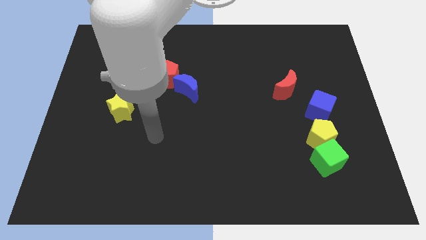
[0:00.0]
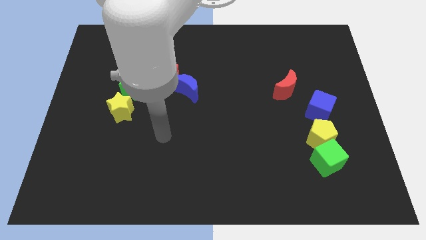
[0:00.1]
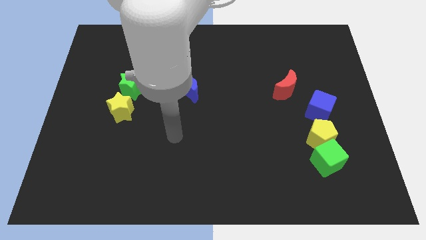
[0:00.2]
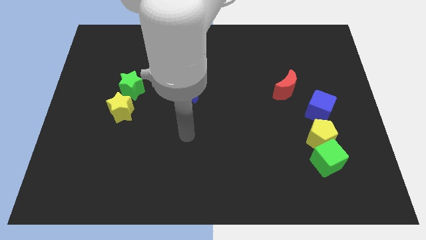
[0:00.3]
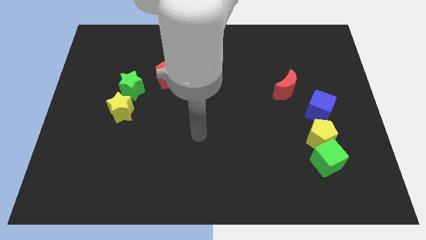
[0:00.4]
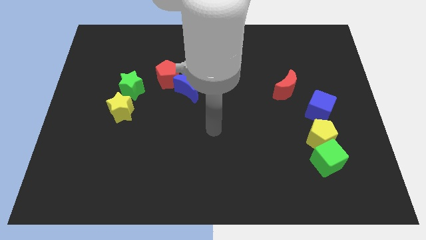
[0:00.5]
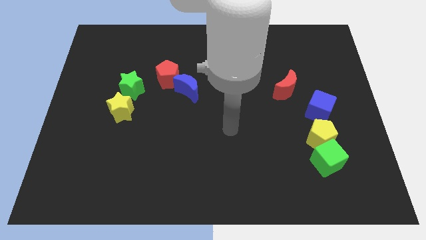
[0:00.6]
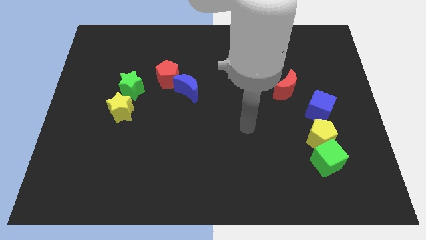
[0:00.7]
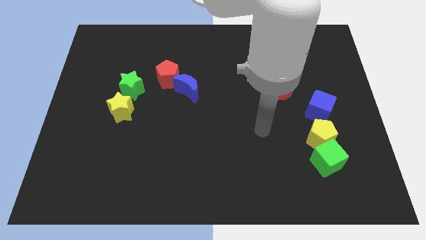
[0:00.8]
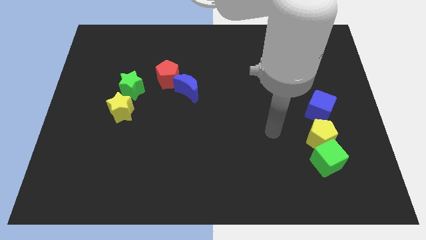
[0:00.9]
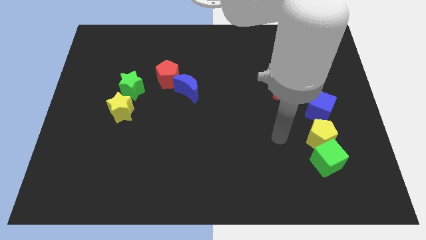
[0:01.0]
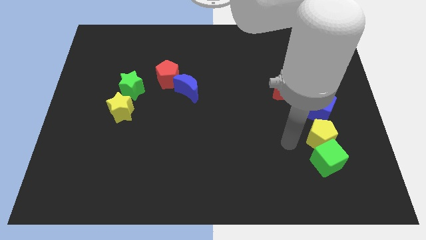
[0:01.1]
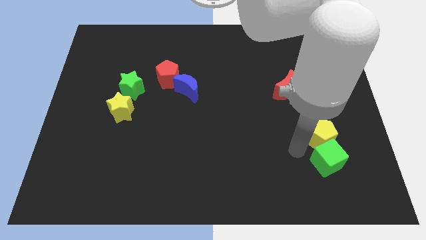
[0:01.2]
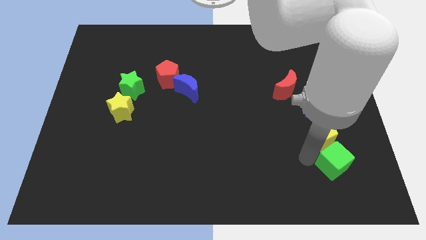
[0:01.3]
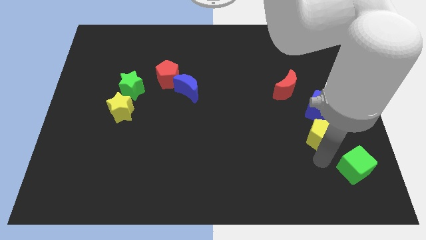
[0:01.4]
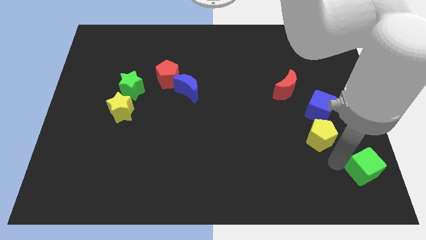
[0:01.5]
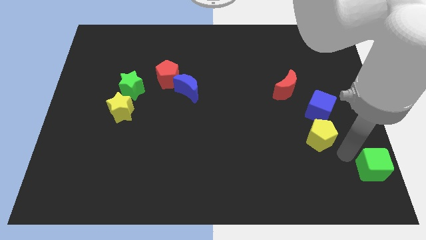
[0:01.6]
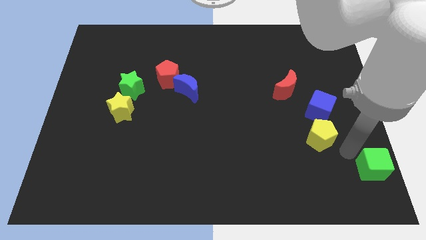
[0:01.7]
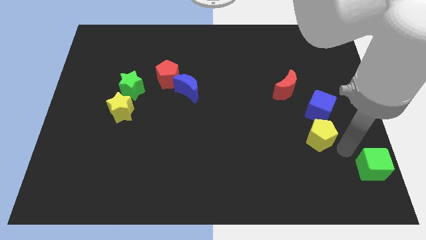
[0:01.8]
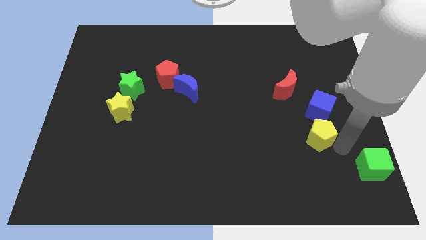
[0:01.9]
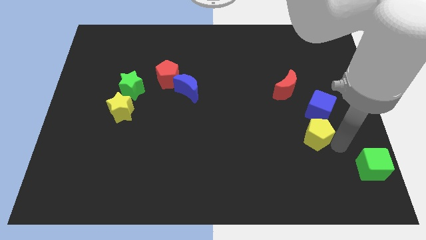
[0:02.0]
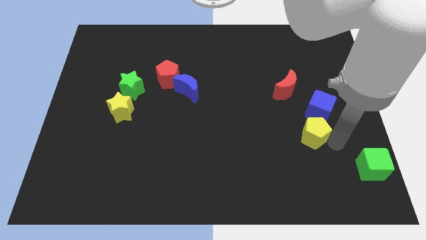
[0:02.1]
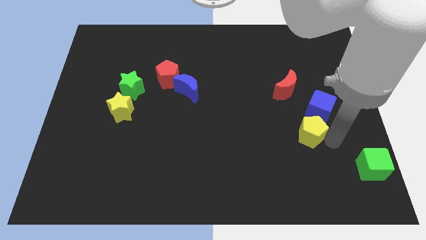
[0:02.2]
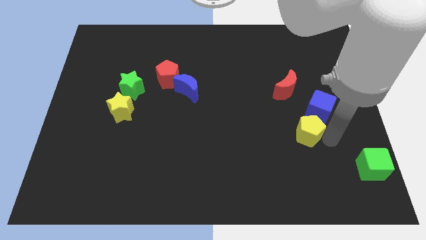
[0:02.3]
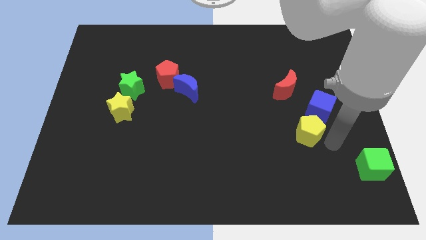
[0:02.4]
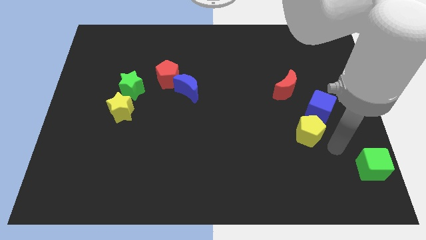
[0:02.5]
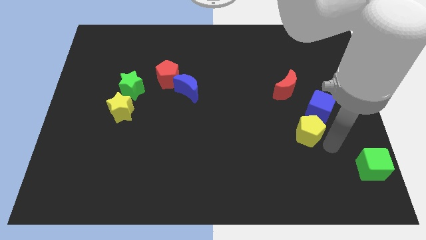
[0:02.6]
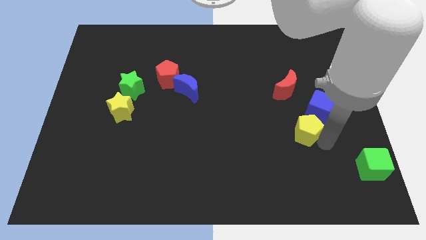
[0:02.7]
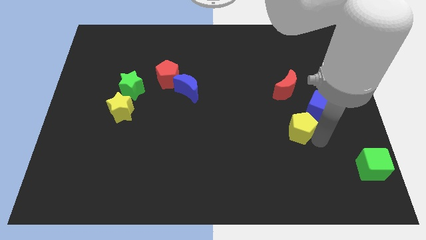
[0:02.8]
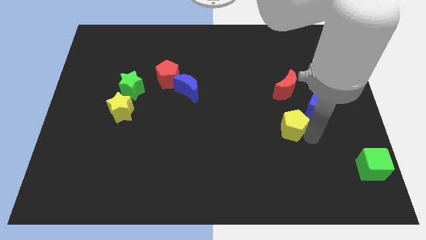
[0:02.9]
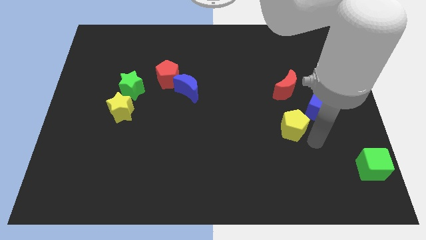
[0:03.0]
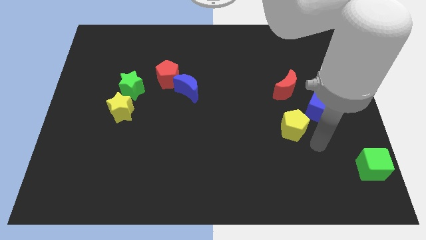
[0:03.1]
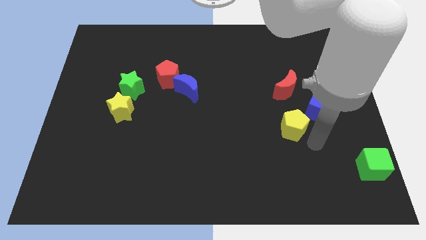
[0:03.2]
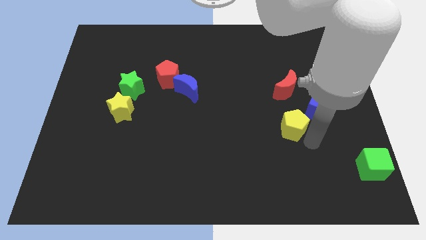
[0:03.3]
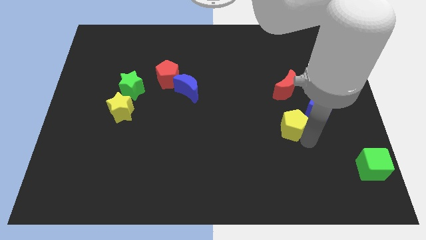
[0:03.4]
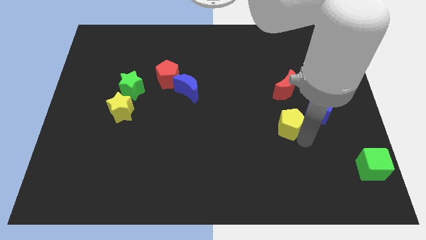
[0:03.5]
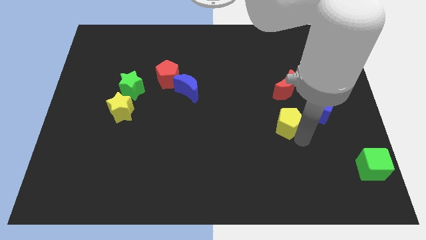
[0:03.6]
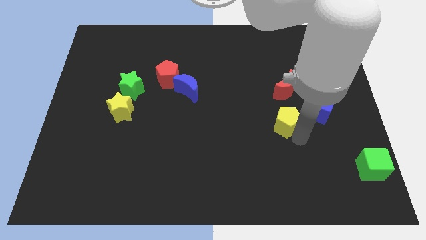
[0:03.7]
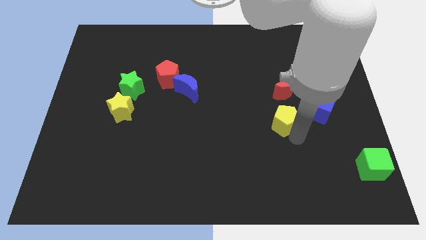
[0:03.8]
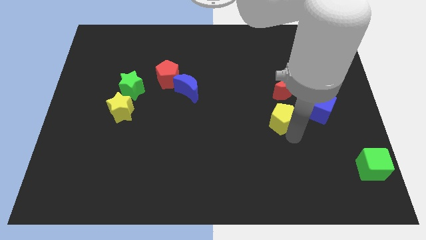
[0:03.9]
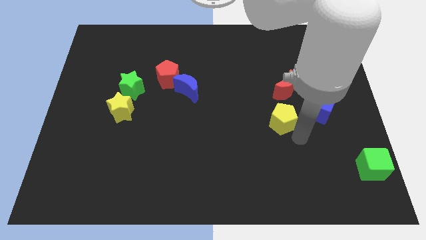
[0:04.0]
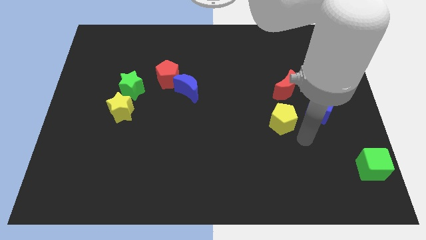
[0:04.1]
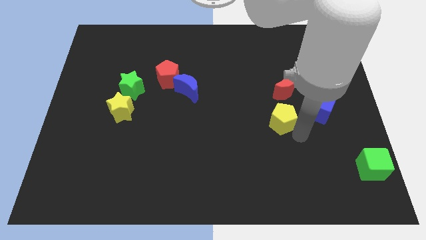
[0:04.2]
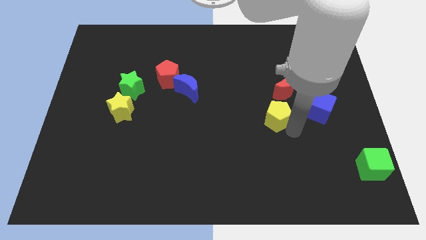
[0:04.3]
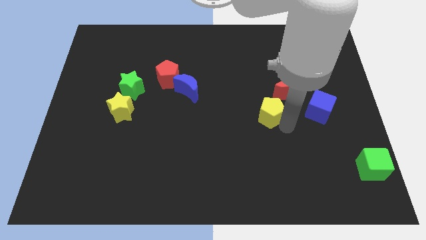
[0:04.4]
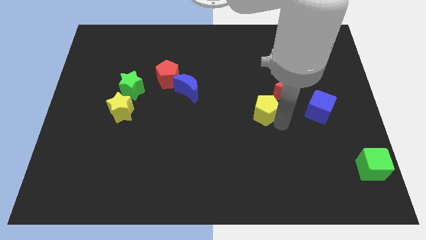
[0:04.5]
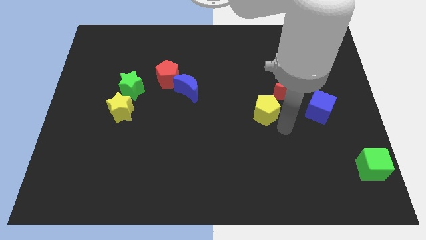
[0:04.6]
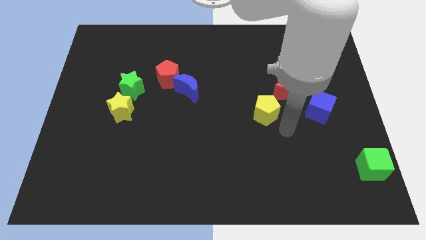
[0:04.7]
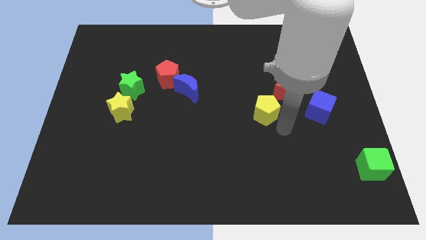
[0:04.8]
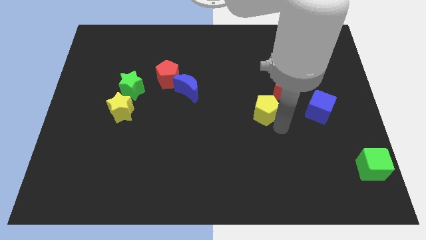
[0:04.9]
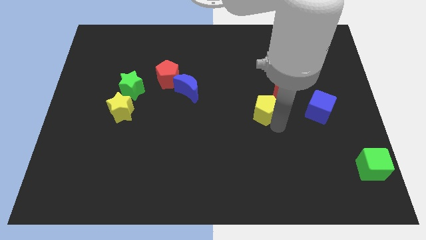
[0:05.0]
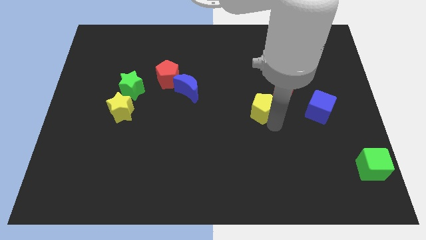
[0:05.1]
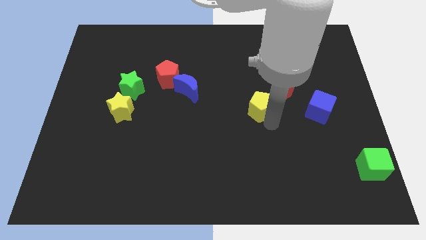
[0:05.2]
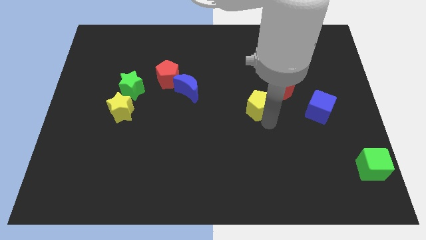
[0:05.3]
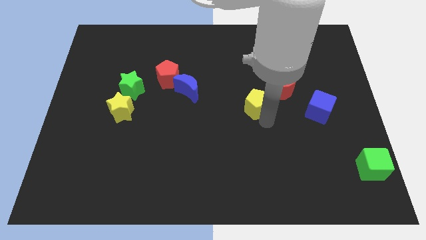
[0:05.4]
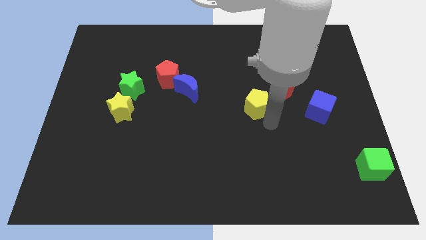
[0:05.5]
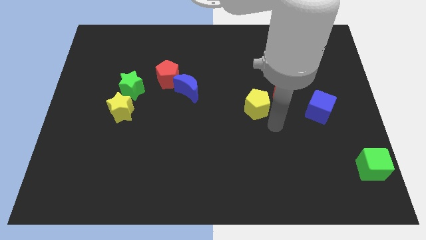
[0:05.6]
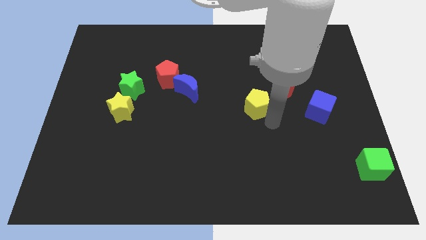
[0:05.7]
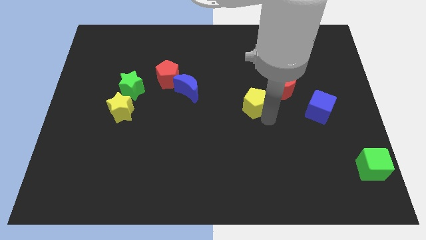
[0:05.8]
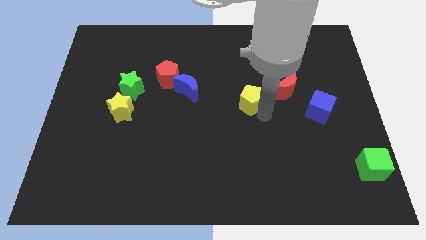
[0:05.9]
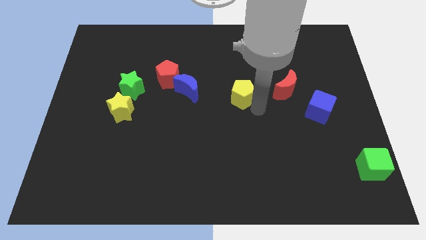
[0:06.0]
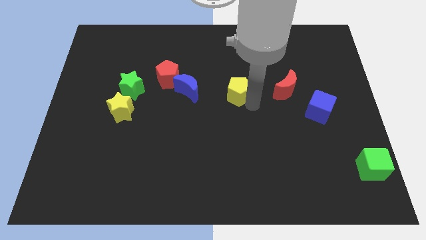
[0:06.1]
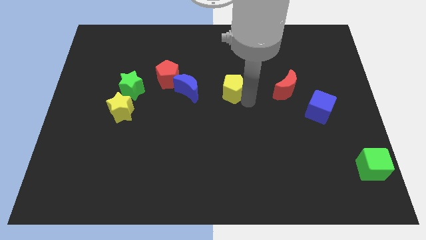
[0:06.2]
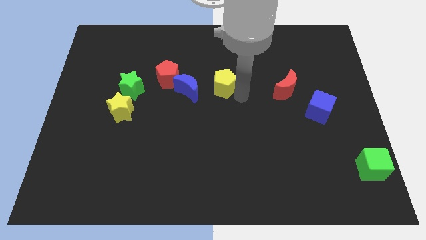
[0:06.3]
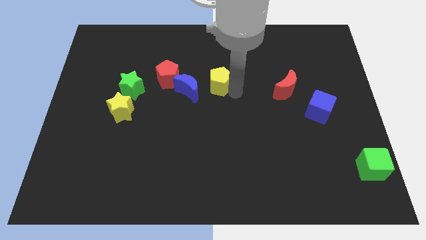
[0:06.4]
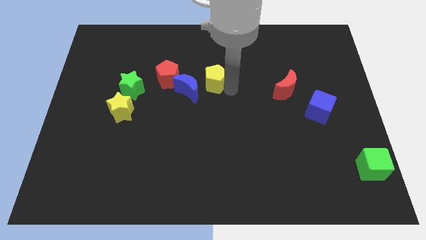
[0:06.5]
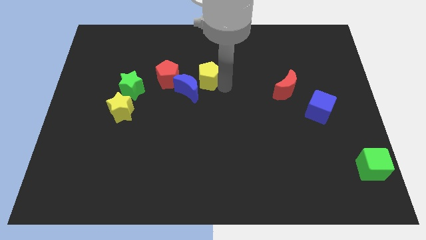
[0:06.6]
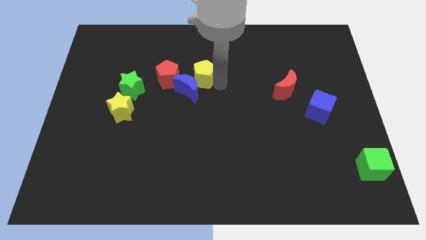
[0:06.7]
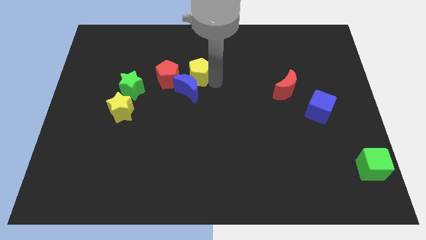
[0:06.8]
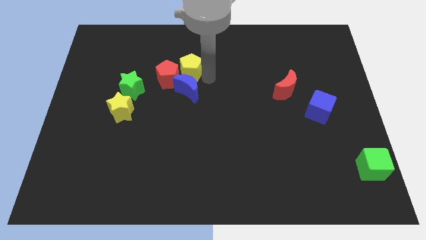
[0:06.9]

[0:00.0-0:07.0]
move the yellow pentagon close to the red pentagon
